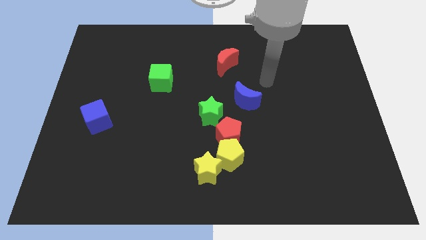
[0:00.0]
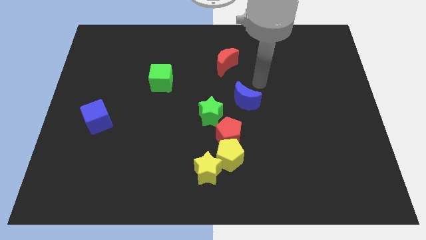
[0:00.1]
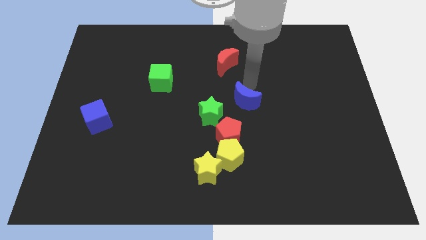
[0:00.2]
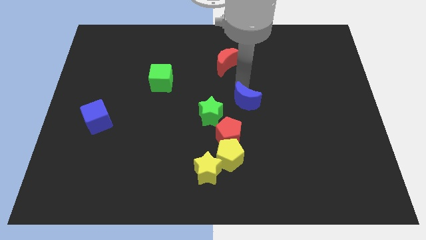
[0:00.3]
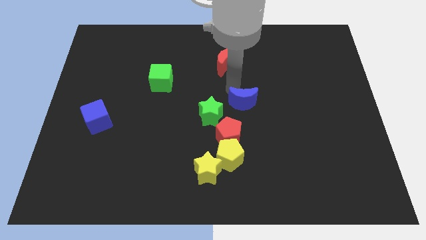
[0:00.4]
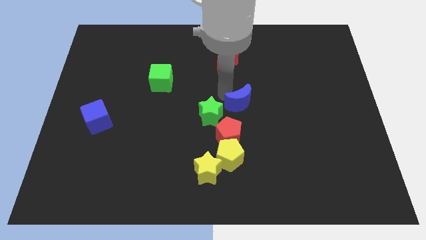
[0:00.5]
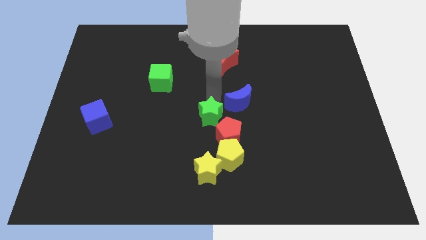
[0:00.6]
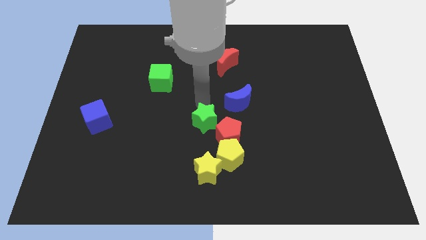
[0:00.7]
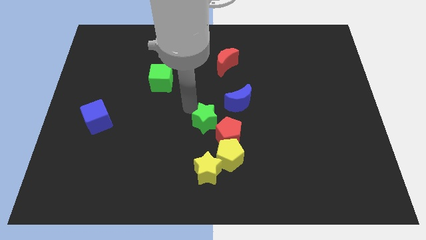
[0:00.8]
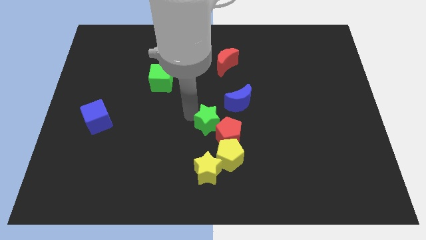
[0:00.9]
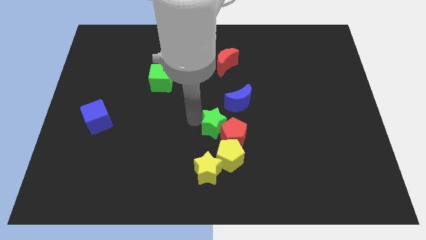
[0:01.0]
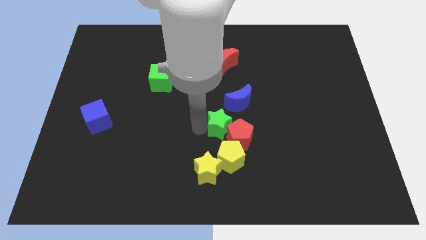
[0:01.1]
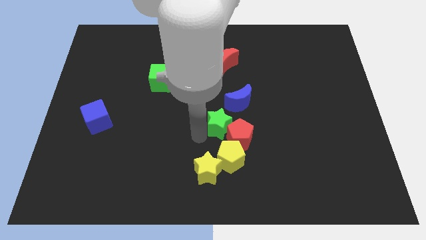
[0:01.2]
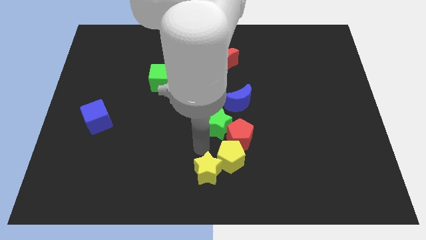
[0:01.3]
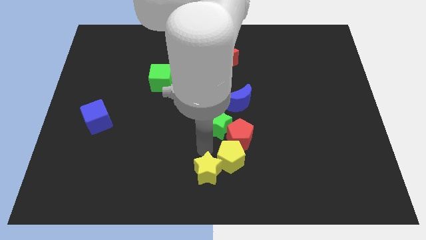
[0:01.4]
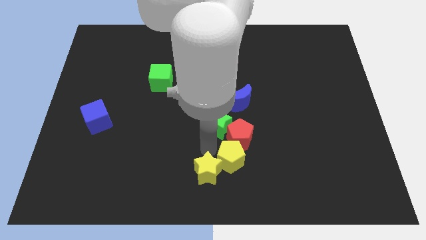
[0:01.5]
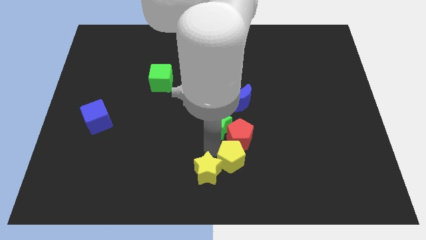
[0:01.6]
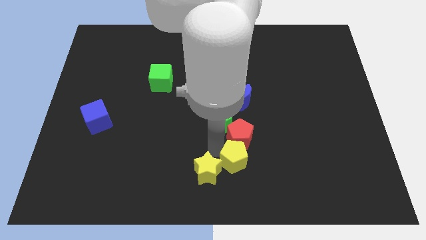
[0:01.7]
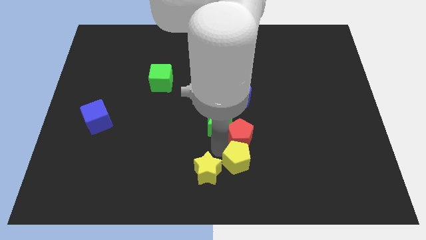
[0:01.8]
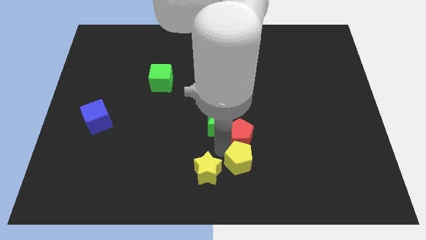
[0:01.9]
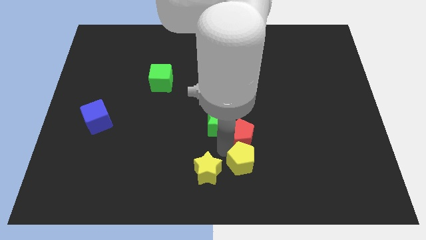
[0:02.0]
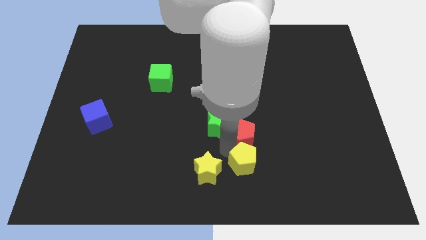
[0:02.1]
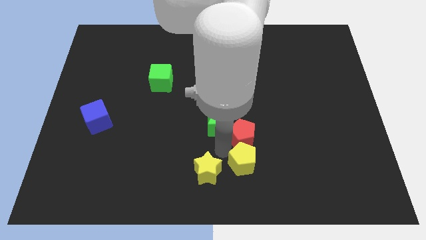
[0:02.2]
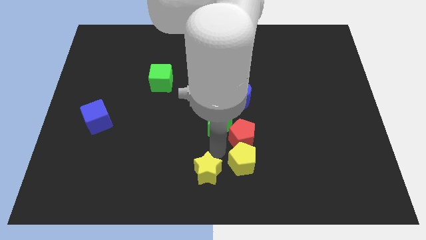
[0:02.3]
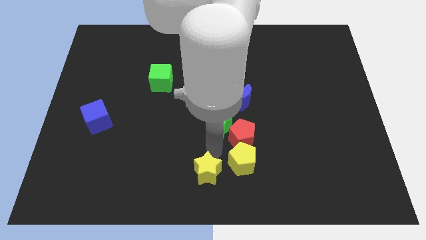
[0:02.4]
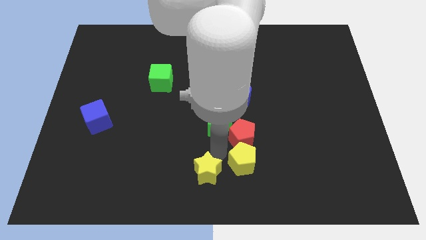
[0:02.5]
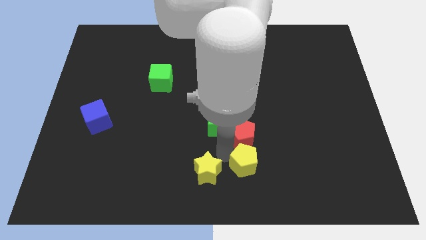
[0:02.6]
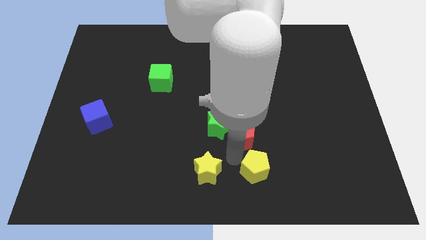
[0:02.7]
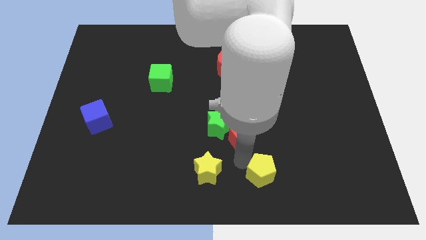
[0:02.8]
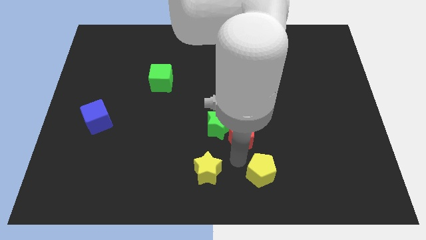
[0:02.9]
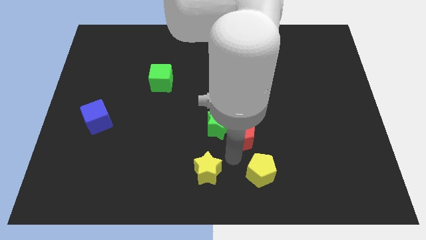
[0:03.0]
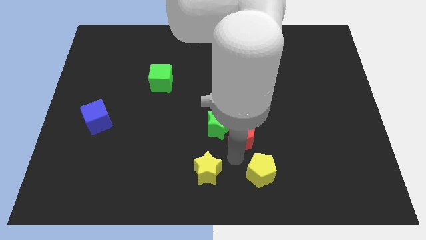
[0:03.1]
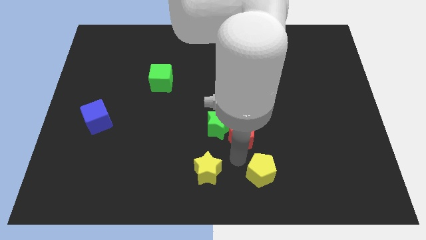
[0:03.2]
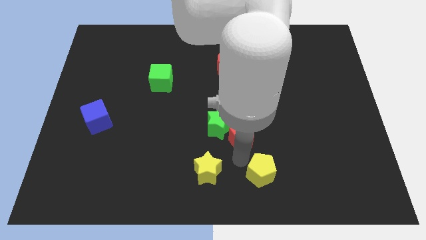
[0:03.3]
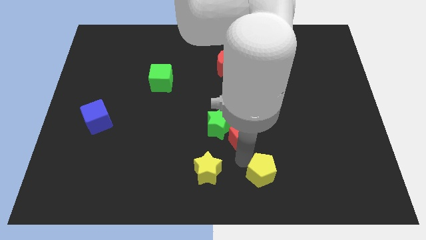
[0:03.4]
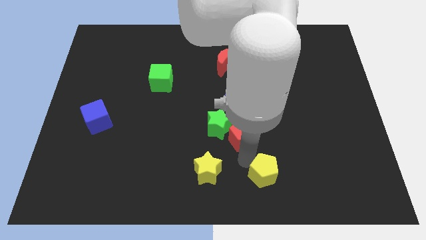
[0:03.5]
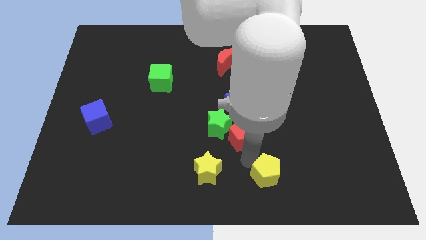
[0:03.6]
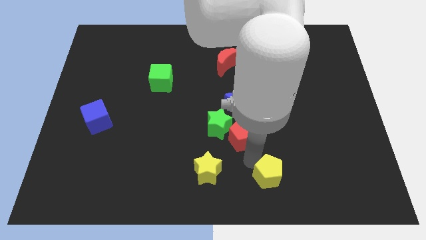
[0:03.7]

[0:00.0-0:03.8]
separate the yellow pentagon from the red pentagon and yellow star

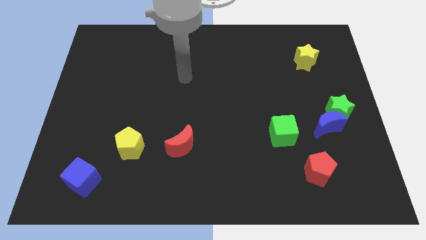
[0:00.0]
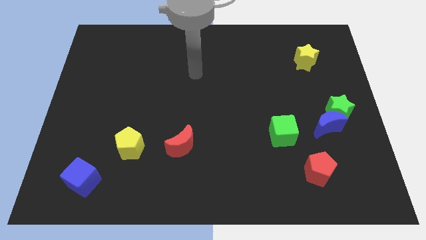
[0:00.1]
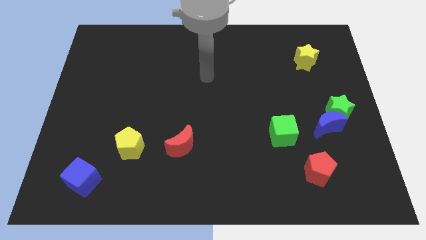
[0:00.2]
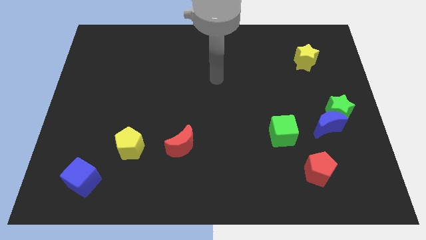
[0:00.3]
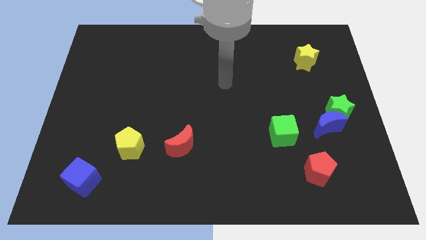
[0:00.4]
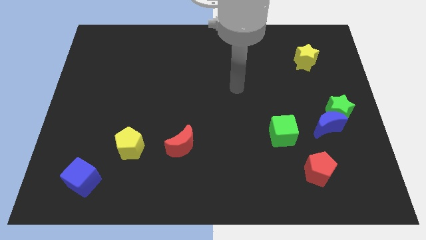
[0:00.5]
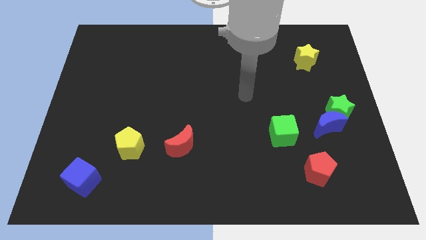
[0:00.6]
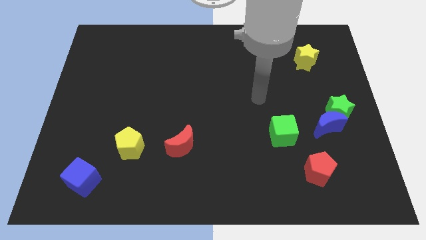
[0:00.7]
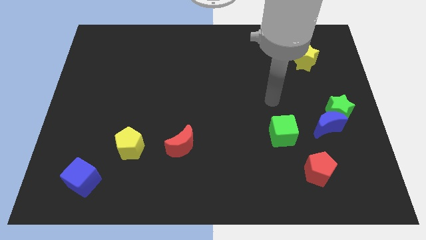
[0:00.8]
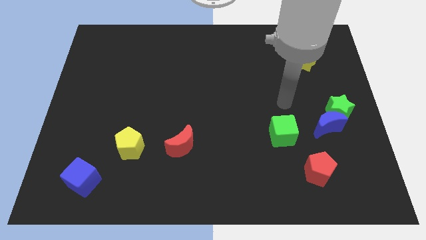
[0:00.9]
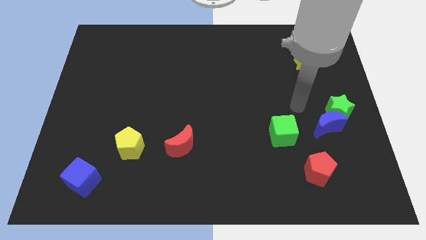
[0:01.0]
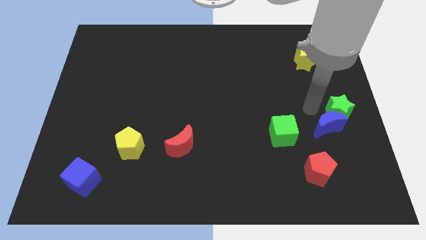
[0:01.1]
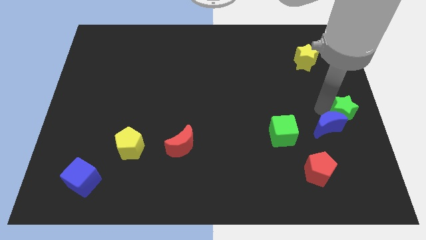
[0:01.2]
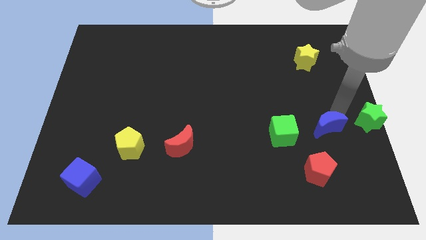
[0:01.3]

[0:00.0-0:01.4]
move the blue moon away from the green star

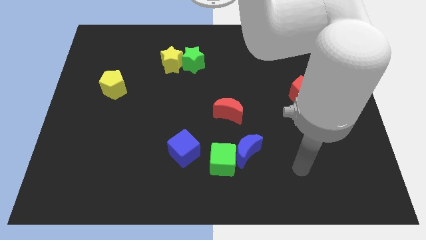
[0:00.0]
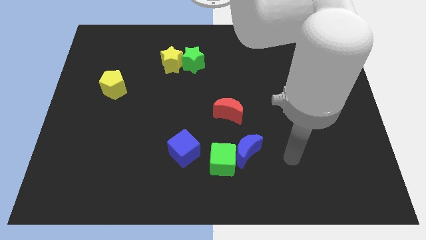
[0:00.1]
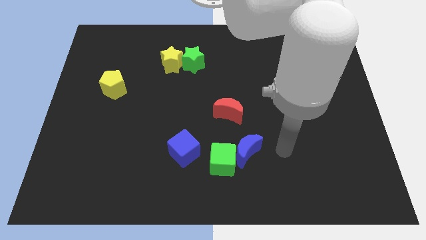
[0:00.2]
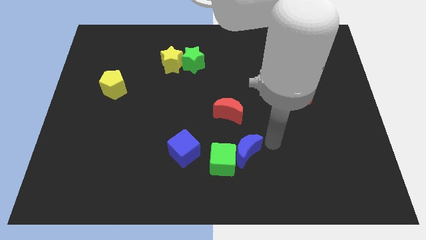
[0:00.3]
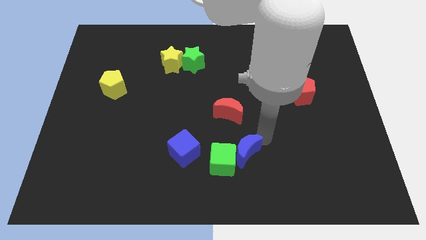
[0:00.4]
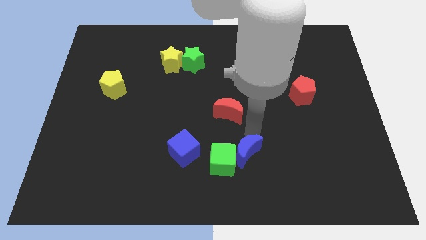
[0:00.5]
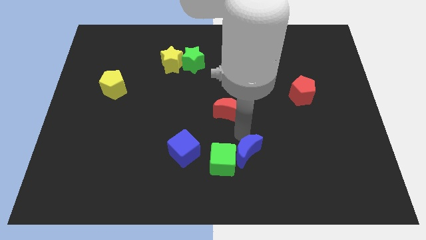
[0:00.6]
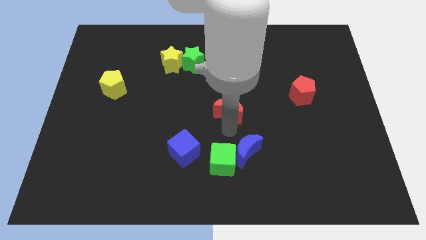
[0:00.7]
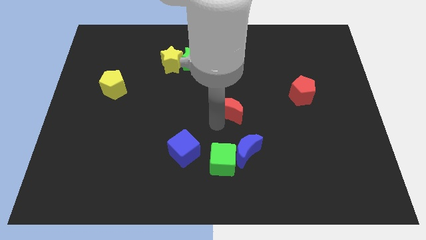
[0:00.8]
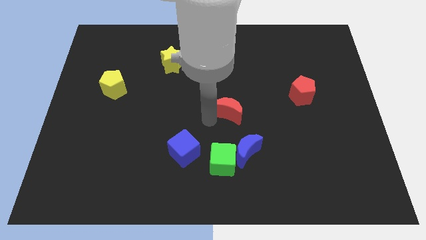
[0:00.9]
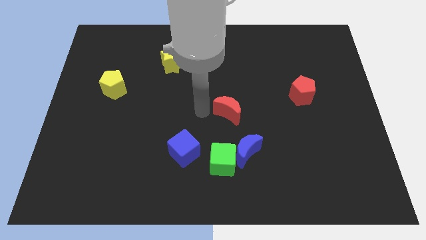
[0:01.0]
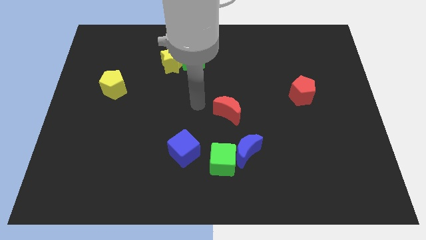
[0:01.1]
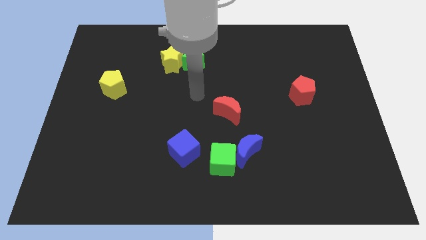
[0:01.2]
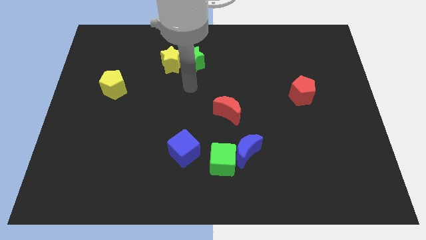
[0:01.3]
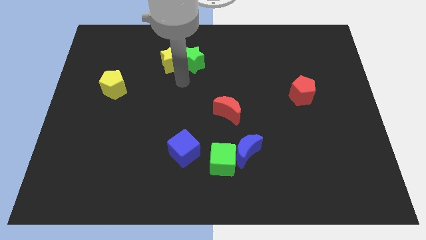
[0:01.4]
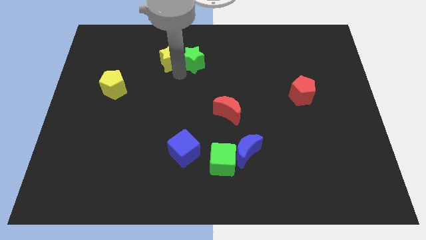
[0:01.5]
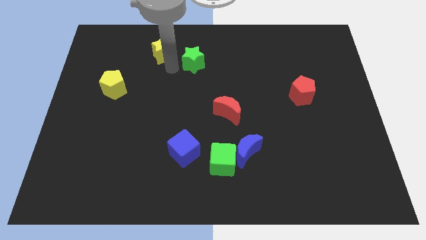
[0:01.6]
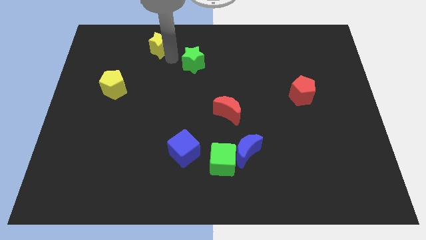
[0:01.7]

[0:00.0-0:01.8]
pull the green star apart from the yellow star

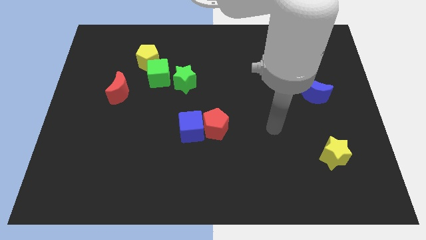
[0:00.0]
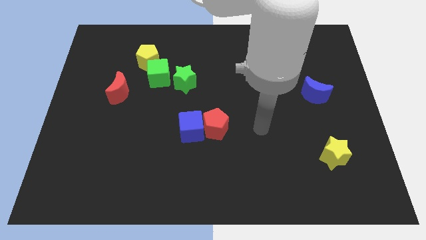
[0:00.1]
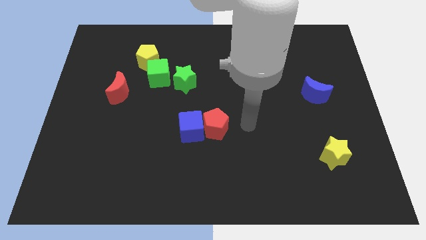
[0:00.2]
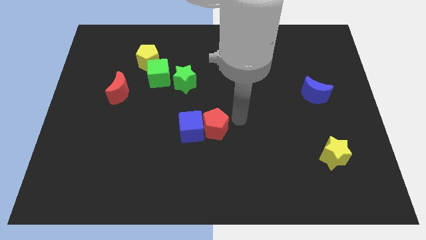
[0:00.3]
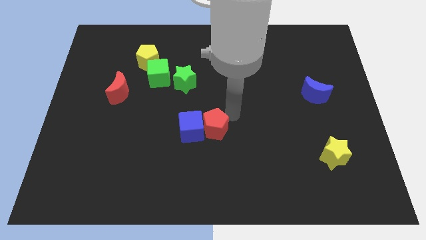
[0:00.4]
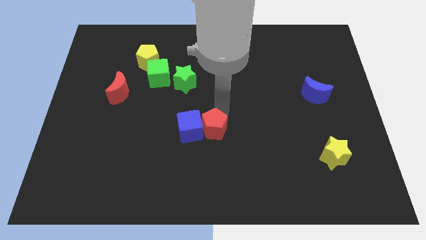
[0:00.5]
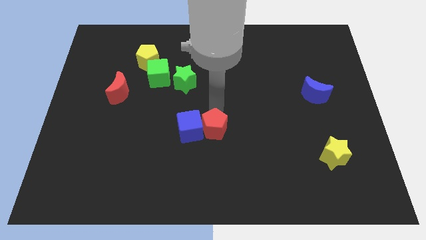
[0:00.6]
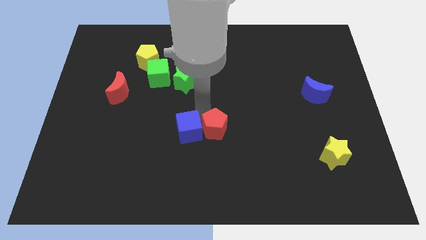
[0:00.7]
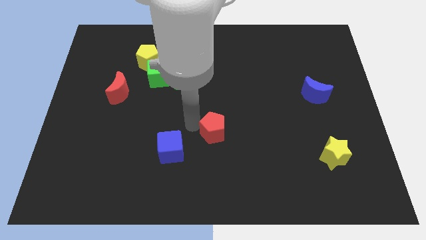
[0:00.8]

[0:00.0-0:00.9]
move the red pentagon away from the blue cube

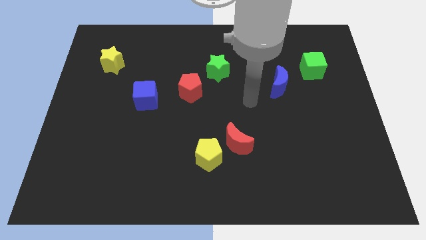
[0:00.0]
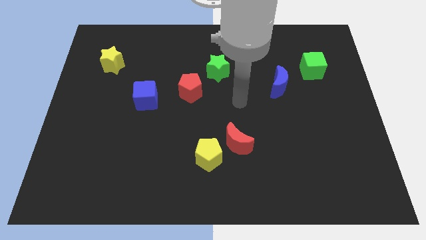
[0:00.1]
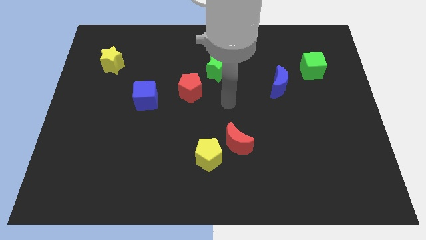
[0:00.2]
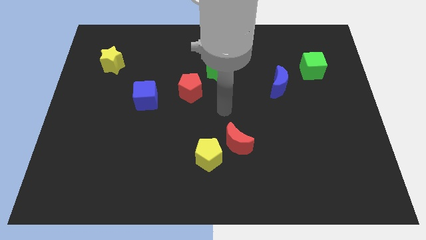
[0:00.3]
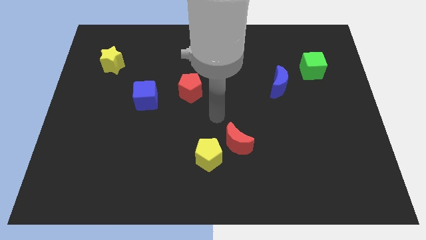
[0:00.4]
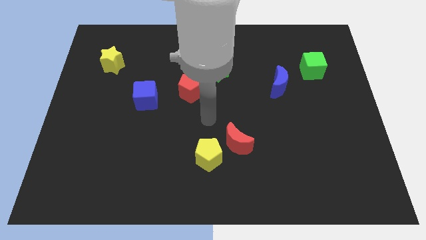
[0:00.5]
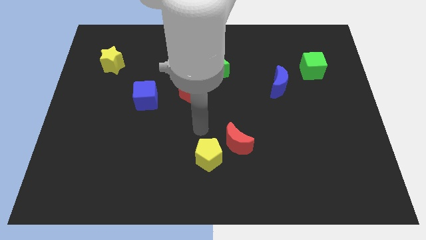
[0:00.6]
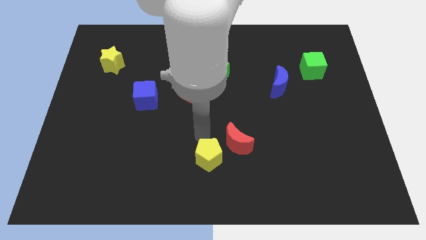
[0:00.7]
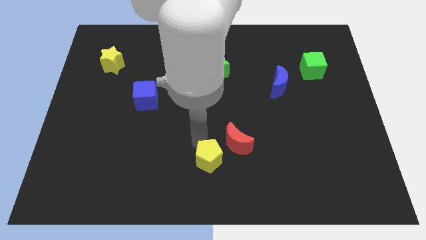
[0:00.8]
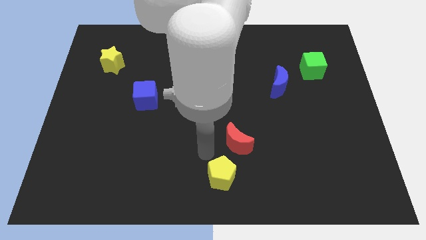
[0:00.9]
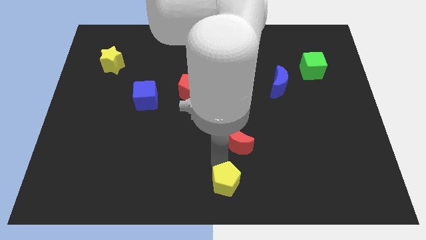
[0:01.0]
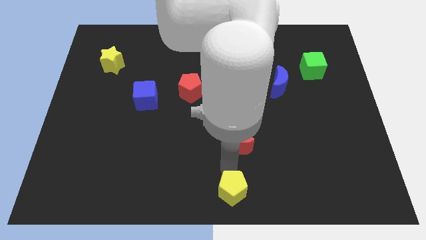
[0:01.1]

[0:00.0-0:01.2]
separate the red moon from the yellow pentagon
